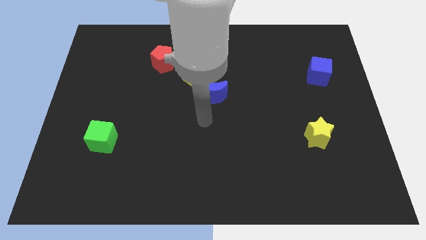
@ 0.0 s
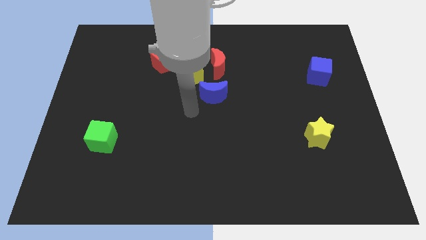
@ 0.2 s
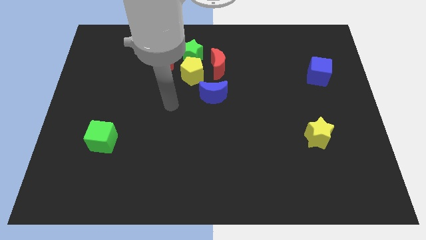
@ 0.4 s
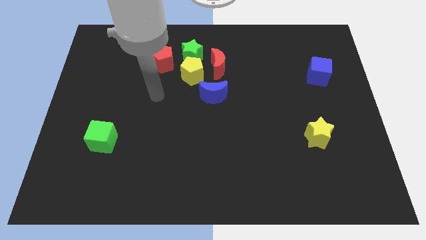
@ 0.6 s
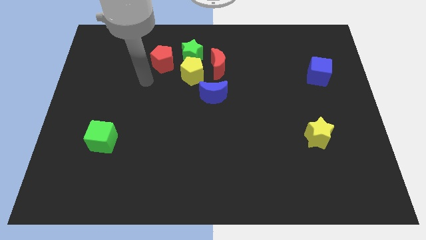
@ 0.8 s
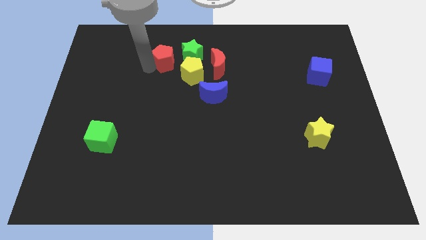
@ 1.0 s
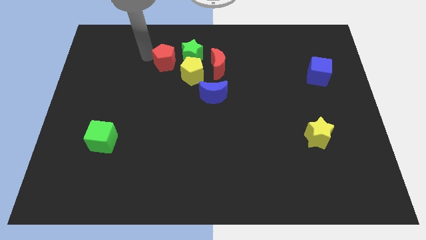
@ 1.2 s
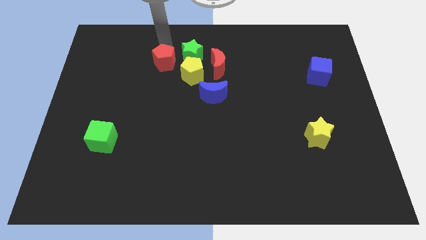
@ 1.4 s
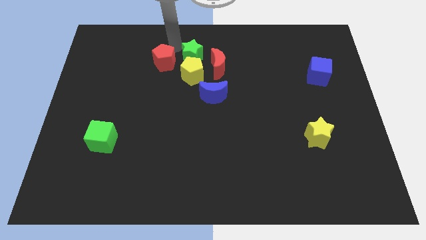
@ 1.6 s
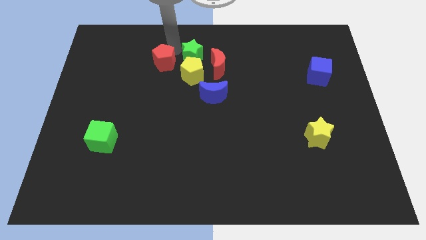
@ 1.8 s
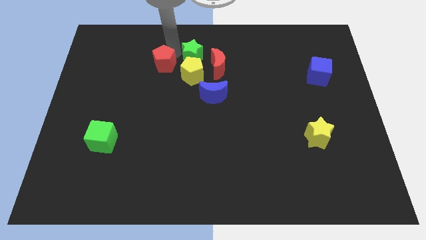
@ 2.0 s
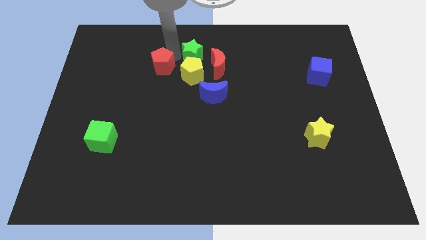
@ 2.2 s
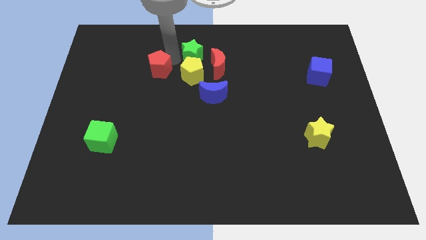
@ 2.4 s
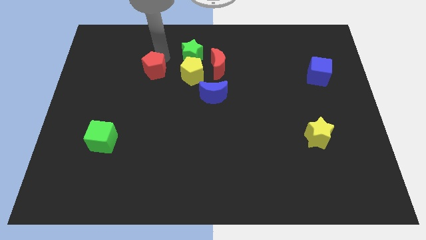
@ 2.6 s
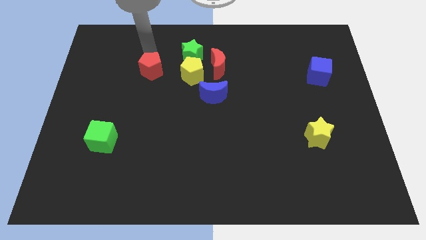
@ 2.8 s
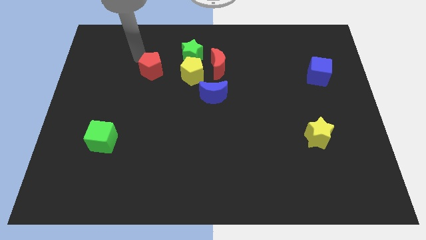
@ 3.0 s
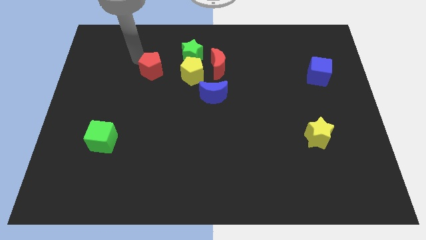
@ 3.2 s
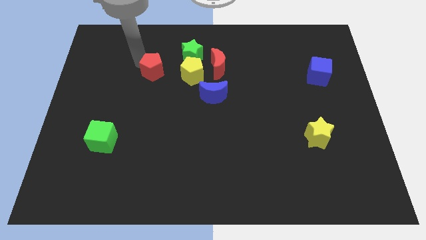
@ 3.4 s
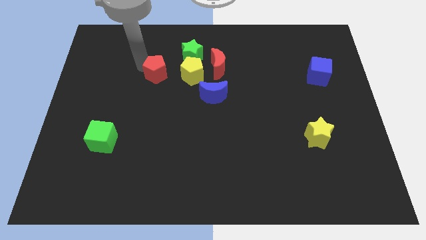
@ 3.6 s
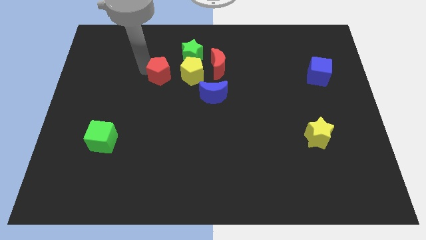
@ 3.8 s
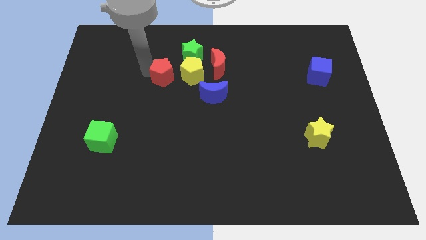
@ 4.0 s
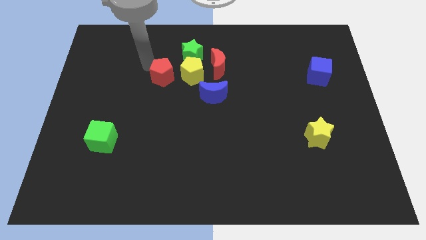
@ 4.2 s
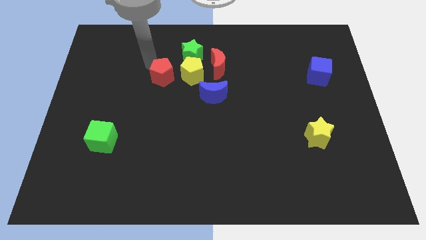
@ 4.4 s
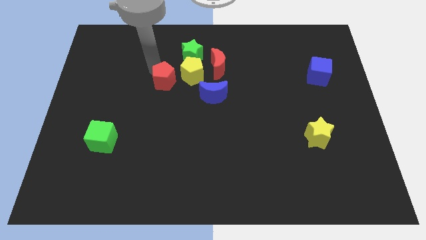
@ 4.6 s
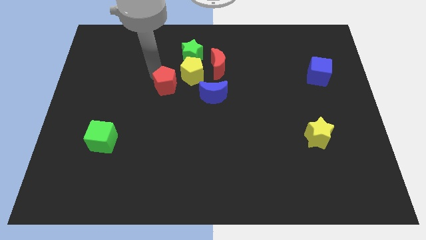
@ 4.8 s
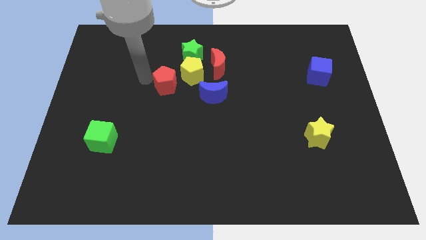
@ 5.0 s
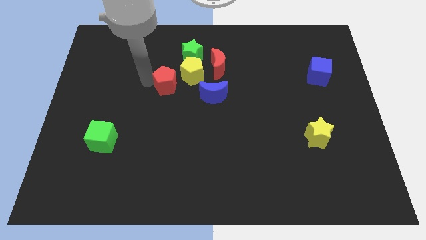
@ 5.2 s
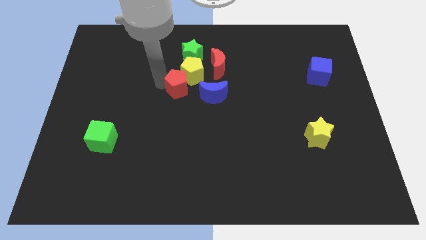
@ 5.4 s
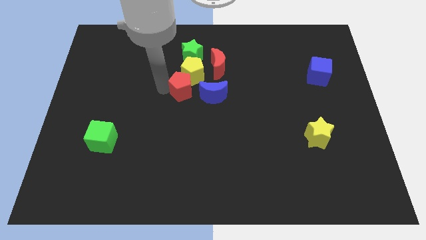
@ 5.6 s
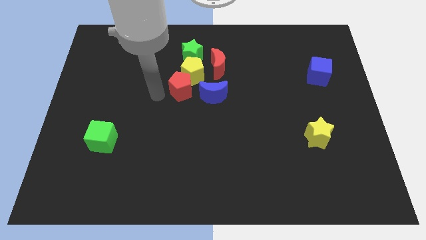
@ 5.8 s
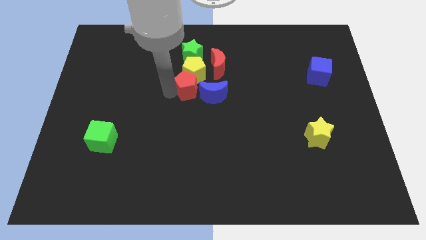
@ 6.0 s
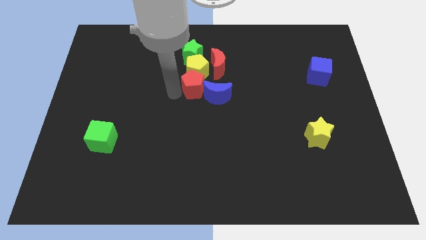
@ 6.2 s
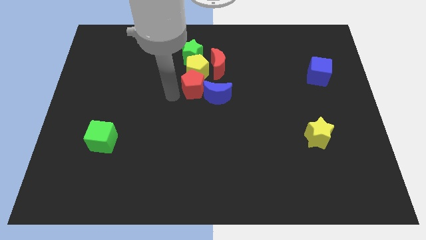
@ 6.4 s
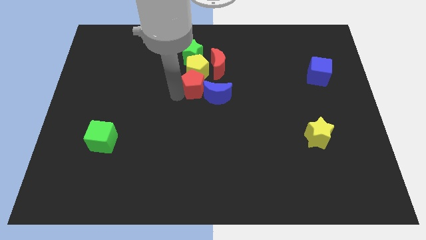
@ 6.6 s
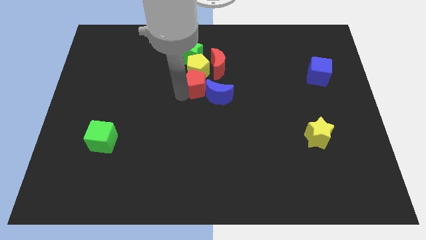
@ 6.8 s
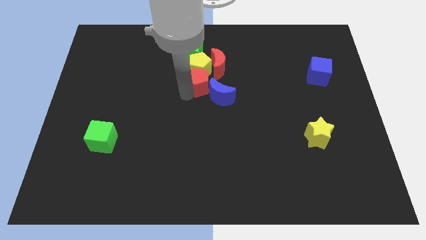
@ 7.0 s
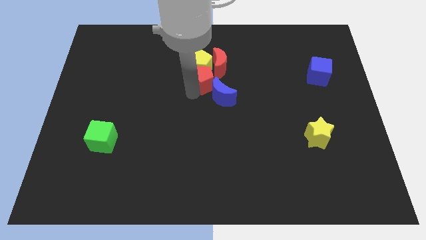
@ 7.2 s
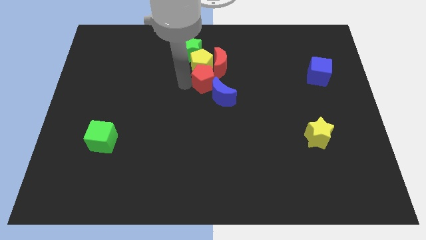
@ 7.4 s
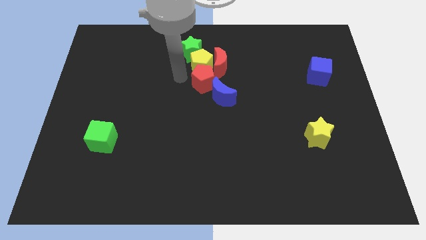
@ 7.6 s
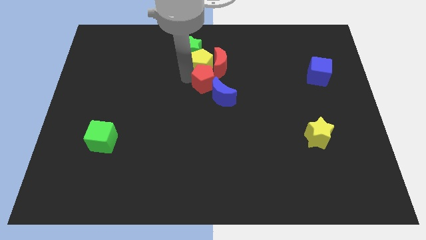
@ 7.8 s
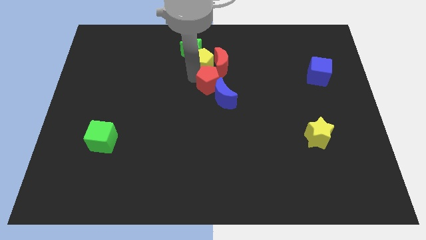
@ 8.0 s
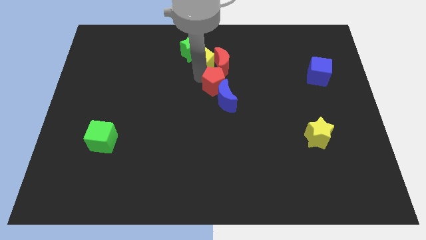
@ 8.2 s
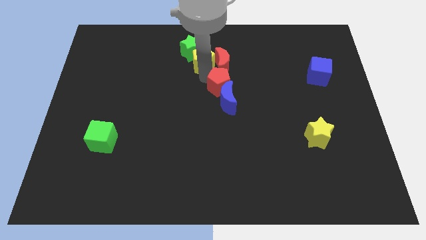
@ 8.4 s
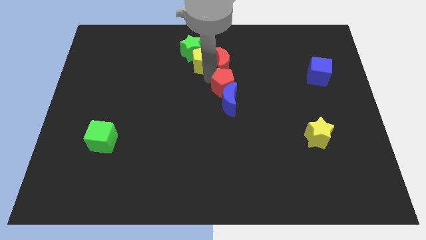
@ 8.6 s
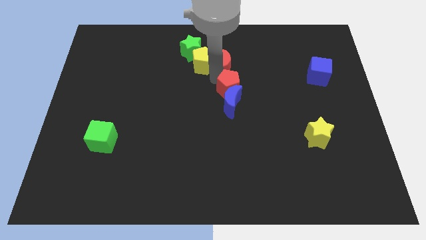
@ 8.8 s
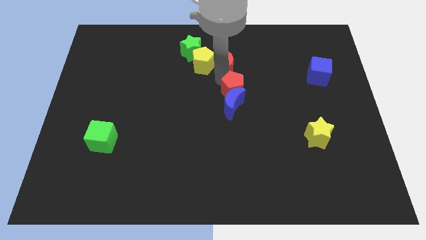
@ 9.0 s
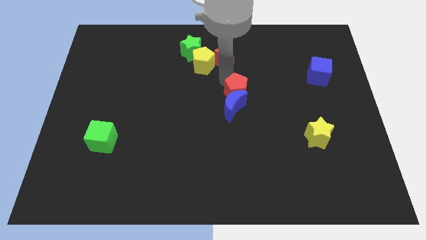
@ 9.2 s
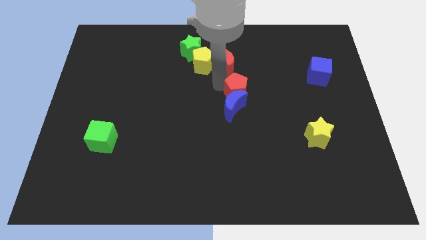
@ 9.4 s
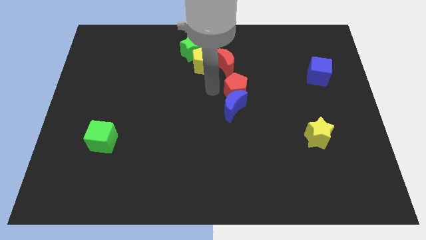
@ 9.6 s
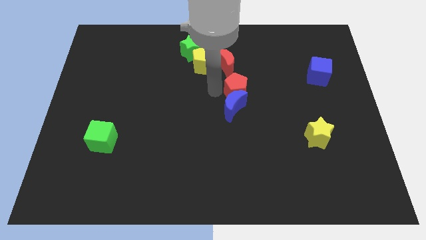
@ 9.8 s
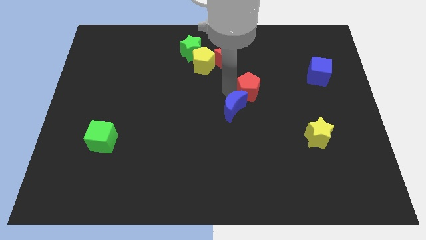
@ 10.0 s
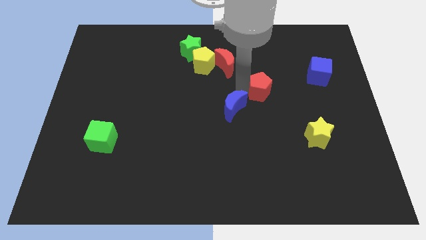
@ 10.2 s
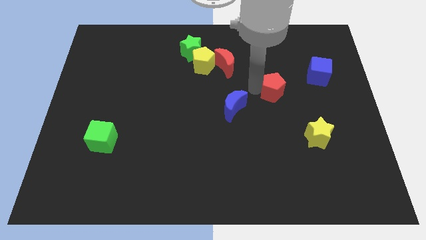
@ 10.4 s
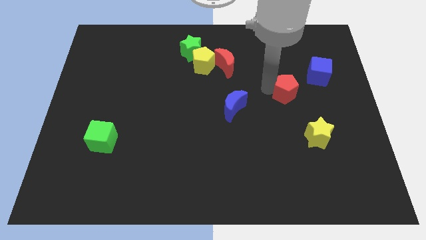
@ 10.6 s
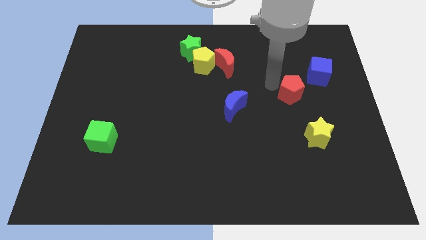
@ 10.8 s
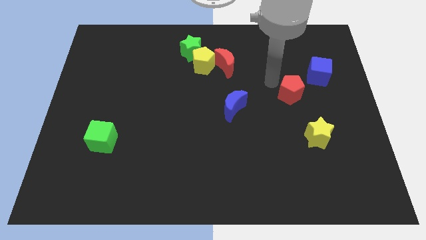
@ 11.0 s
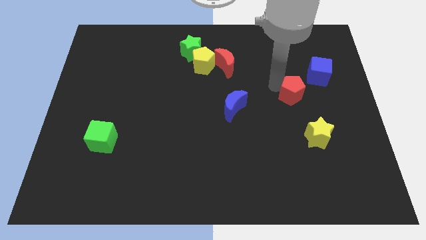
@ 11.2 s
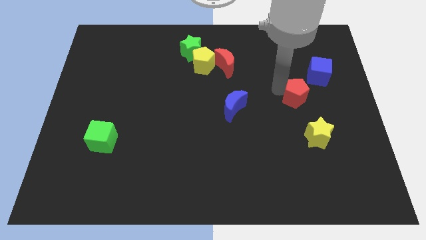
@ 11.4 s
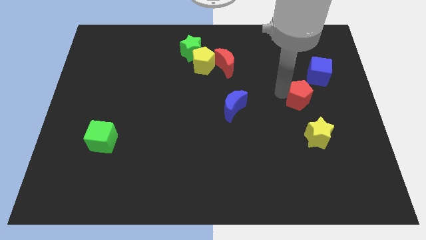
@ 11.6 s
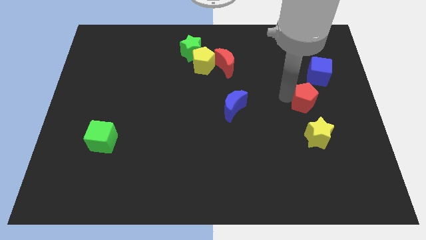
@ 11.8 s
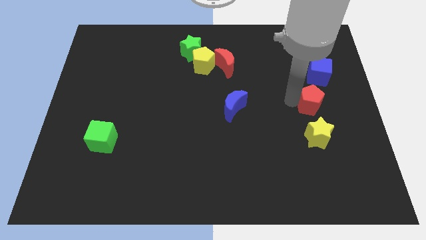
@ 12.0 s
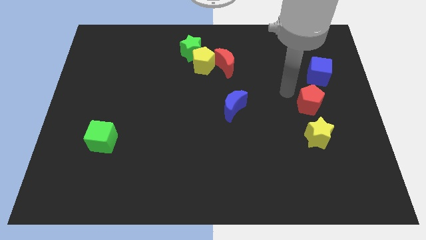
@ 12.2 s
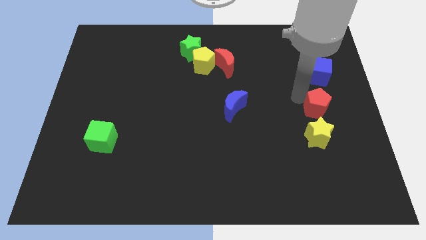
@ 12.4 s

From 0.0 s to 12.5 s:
push the red pentagon to the top right of the yellow star
